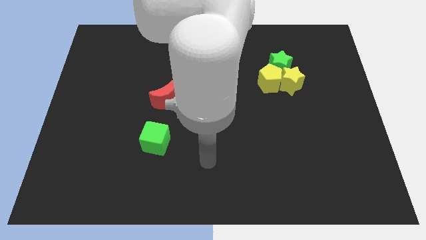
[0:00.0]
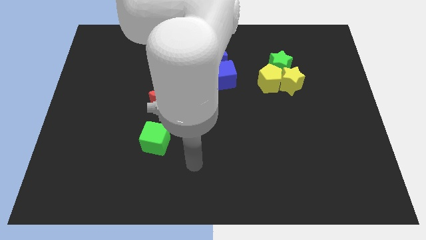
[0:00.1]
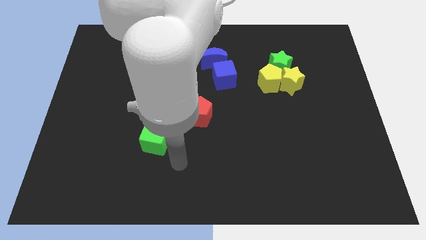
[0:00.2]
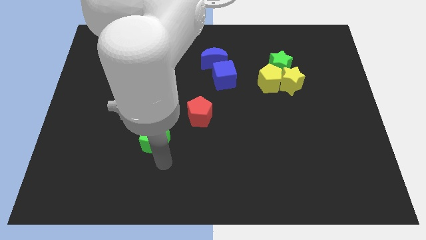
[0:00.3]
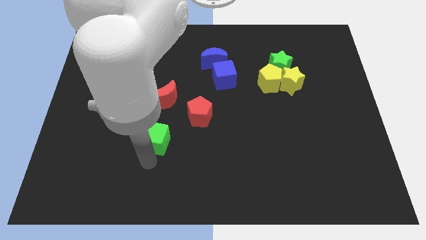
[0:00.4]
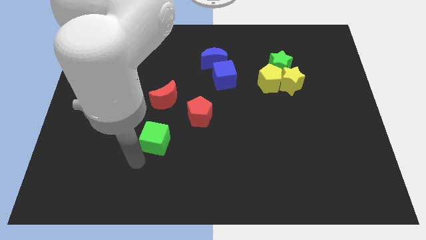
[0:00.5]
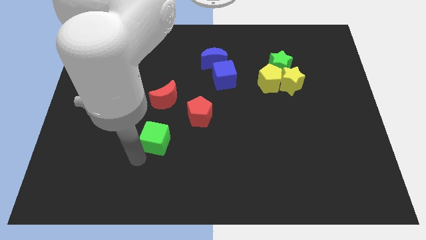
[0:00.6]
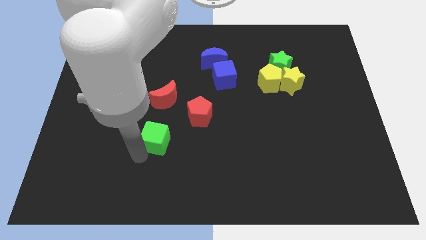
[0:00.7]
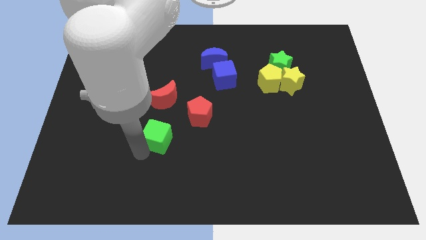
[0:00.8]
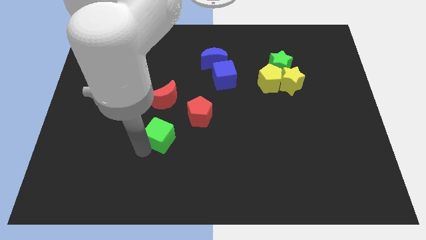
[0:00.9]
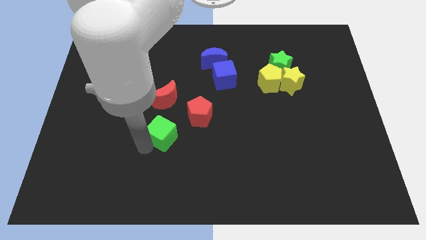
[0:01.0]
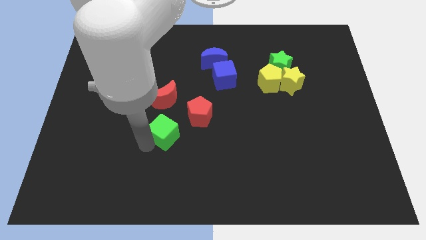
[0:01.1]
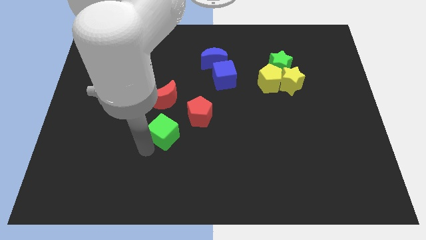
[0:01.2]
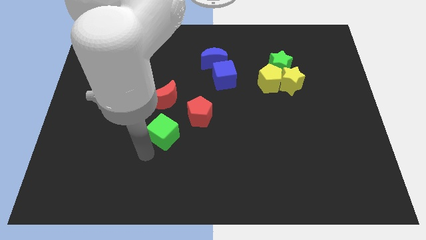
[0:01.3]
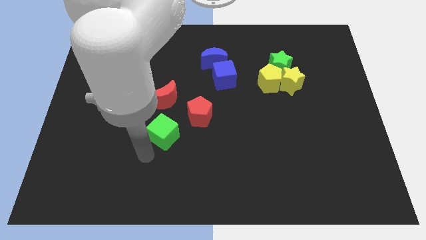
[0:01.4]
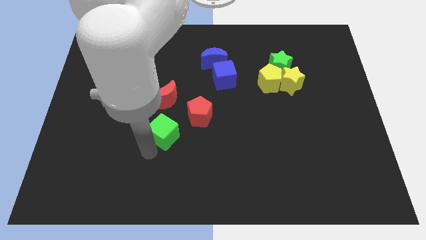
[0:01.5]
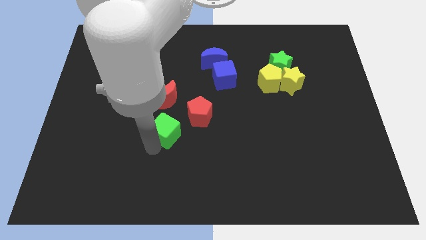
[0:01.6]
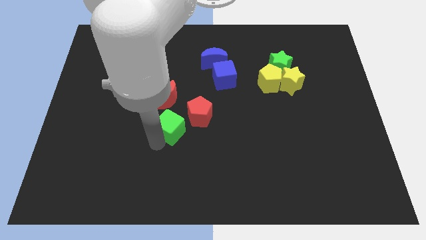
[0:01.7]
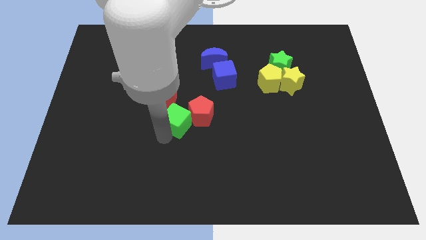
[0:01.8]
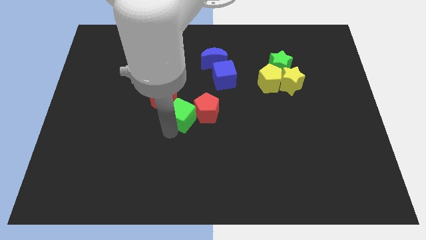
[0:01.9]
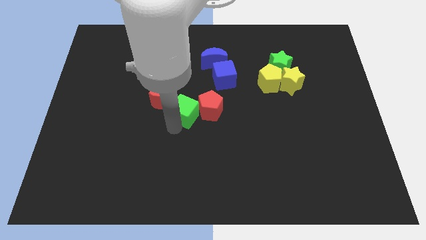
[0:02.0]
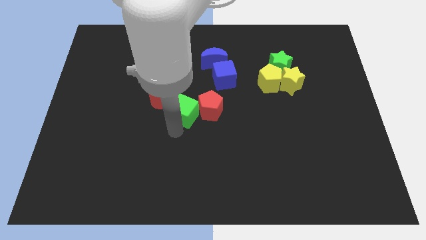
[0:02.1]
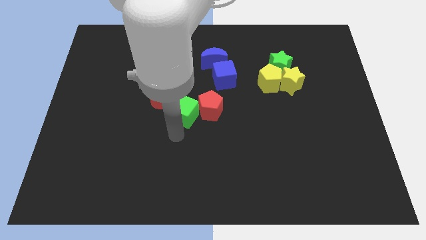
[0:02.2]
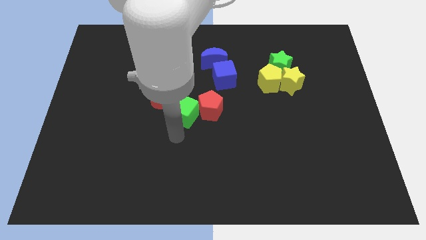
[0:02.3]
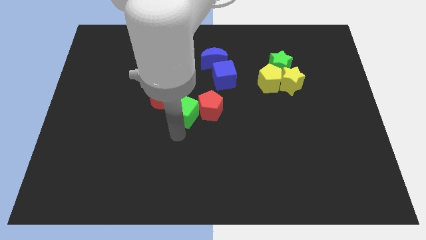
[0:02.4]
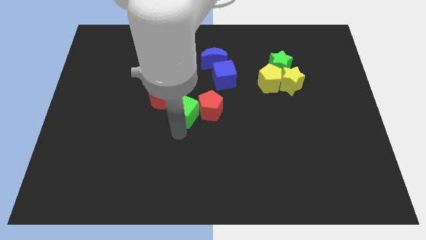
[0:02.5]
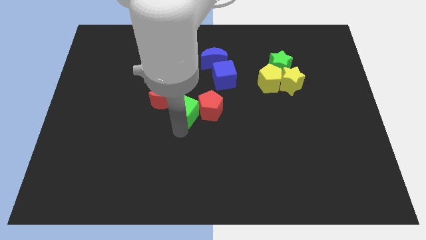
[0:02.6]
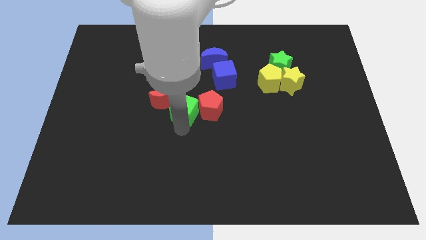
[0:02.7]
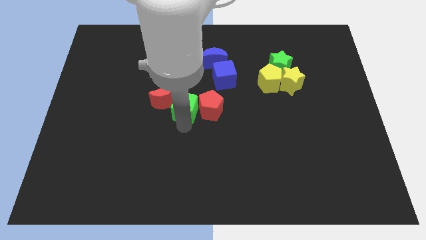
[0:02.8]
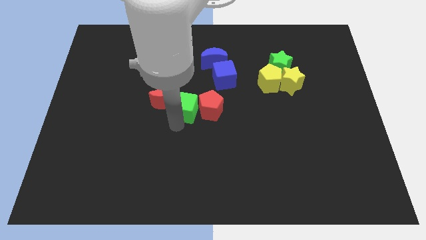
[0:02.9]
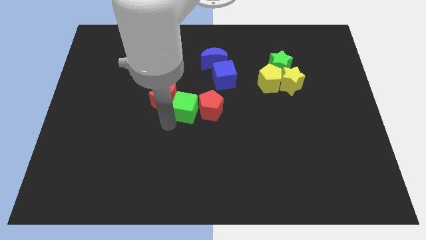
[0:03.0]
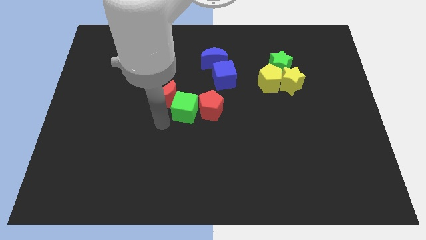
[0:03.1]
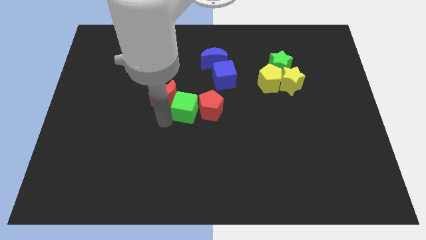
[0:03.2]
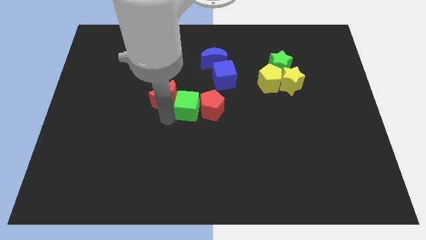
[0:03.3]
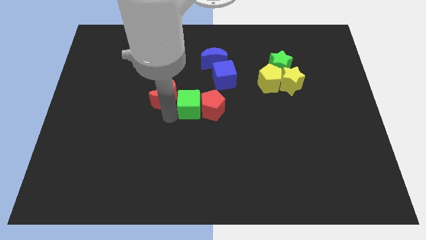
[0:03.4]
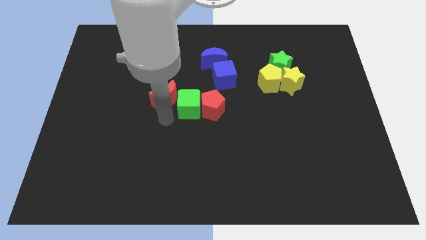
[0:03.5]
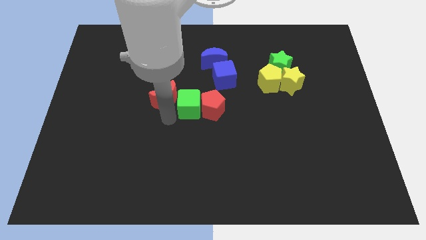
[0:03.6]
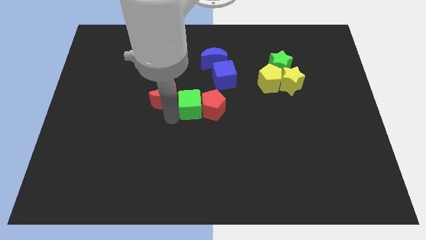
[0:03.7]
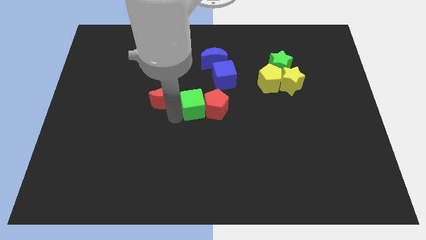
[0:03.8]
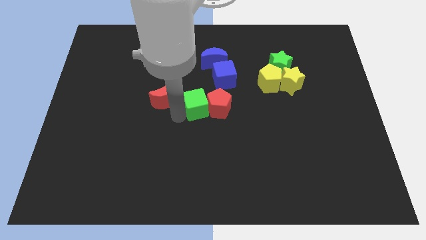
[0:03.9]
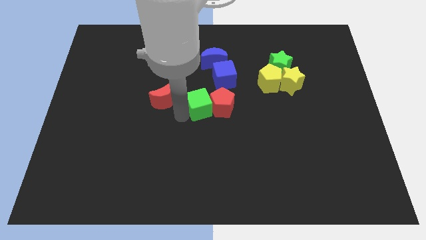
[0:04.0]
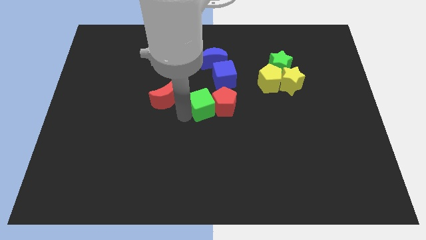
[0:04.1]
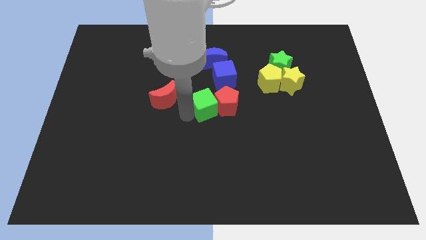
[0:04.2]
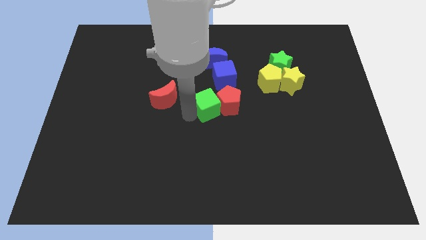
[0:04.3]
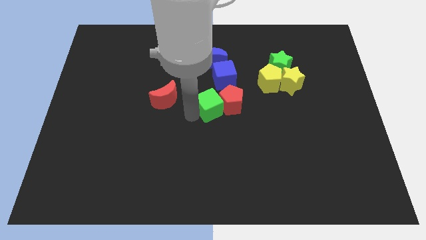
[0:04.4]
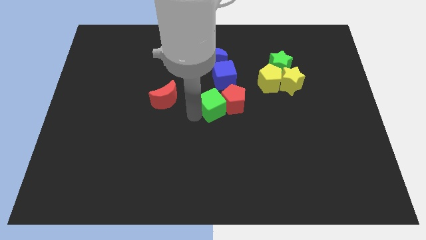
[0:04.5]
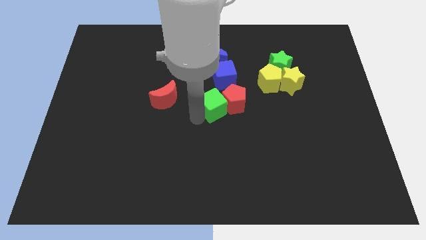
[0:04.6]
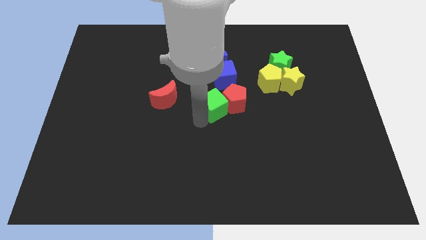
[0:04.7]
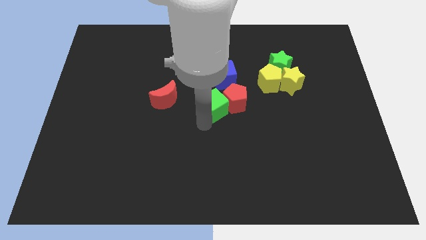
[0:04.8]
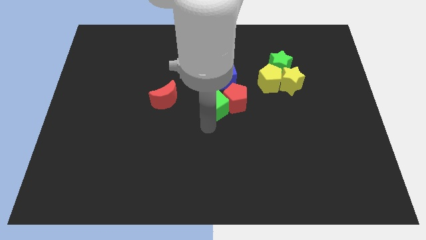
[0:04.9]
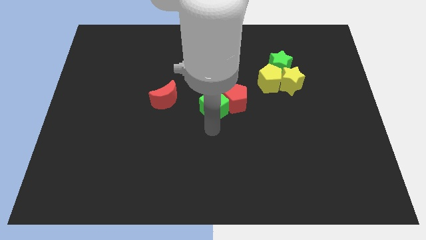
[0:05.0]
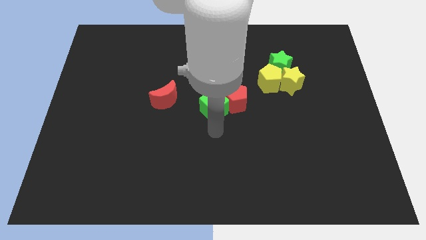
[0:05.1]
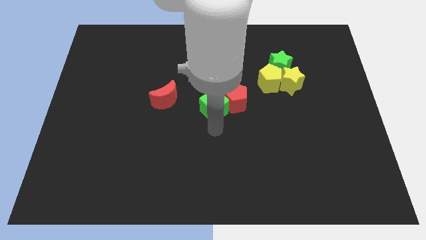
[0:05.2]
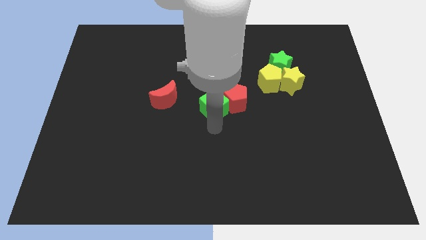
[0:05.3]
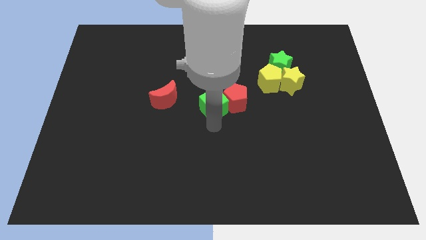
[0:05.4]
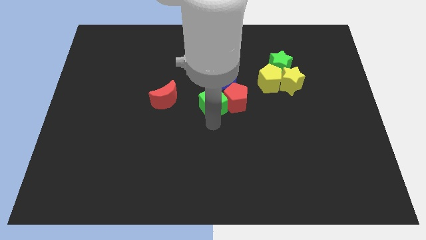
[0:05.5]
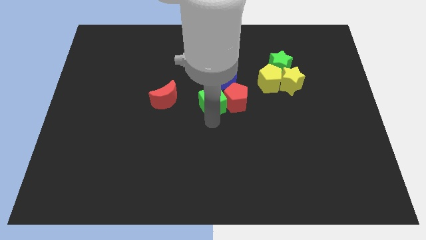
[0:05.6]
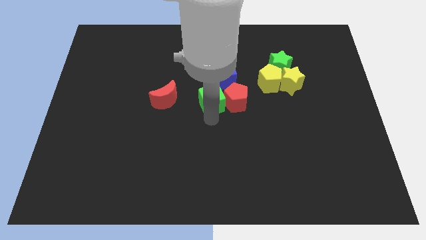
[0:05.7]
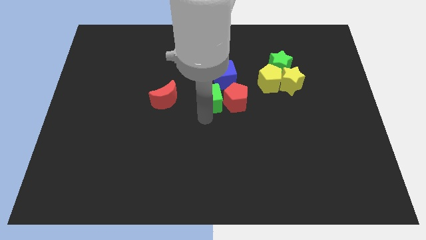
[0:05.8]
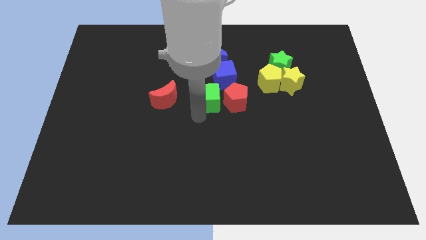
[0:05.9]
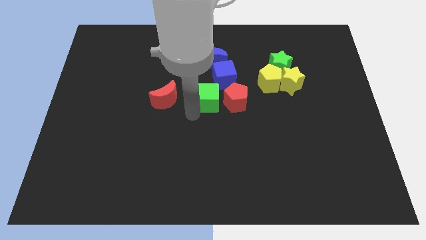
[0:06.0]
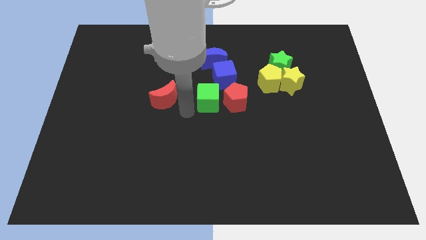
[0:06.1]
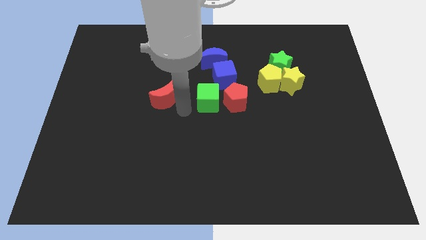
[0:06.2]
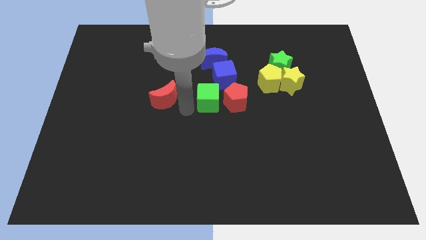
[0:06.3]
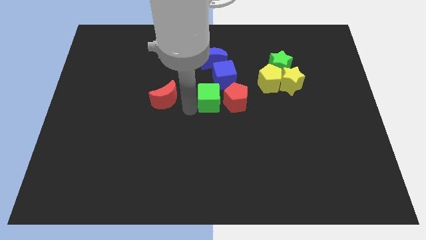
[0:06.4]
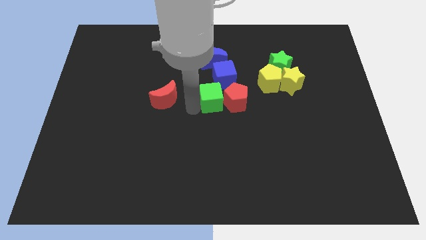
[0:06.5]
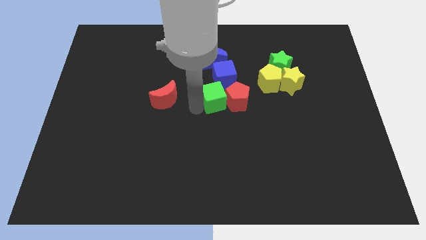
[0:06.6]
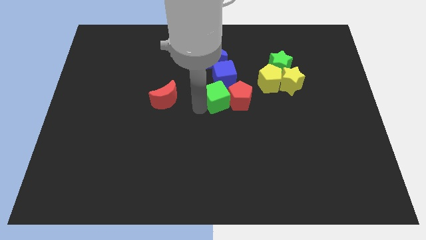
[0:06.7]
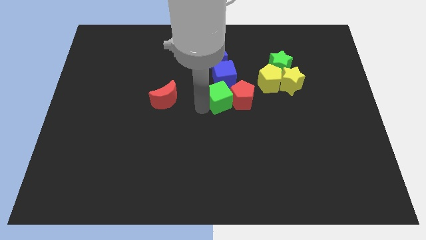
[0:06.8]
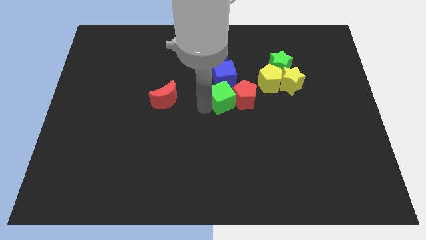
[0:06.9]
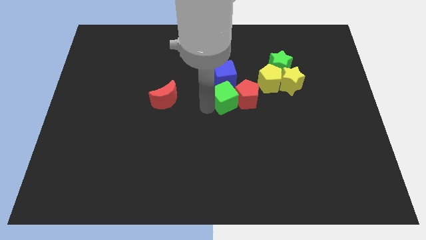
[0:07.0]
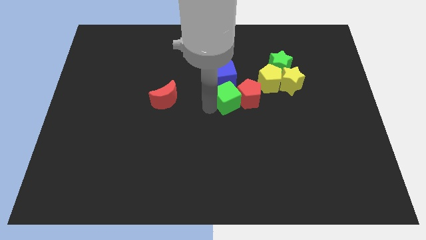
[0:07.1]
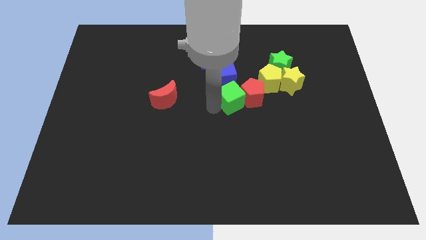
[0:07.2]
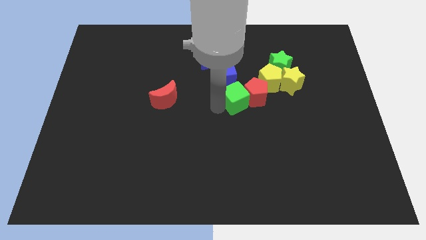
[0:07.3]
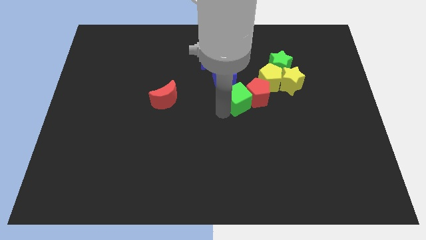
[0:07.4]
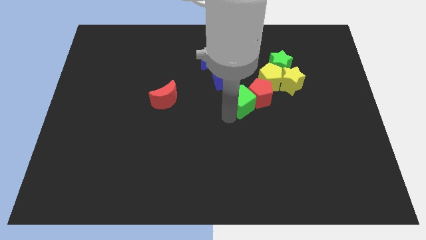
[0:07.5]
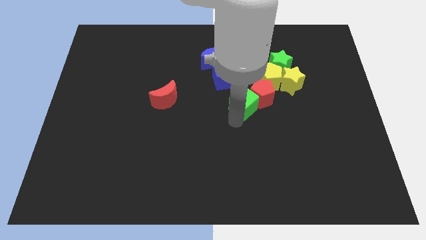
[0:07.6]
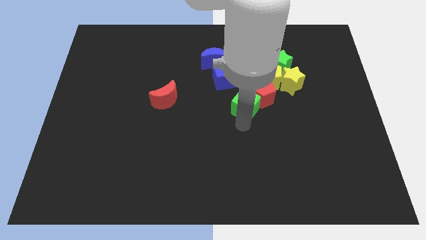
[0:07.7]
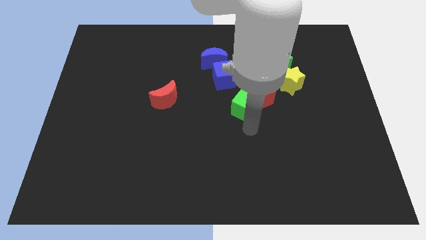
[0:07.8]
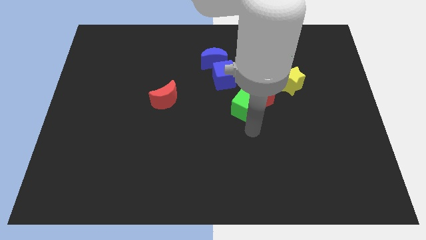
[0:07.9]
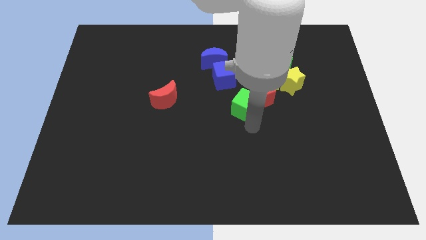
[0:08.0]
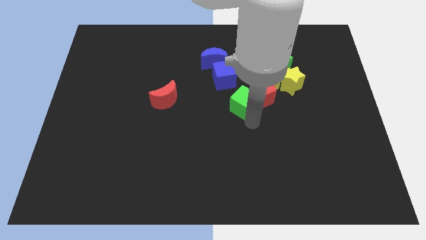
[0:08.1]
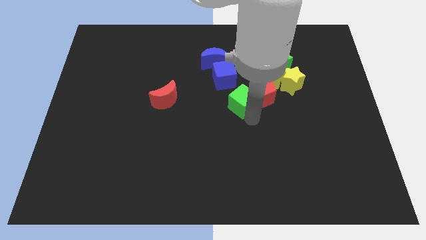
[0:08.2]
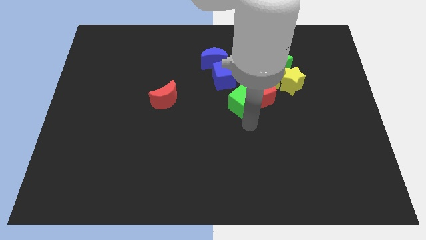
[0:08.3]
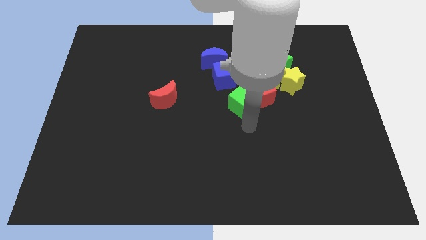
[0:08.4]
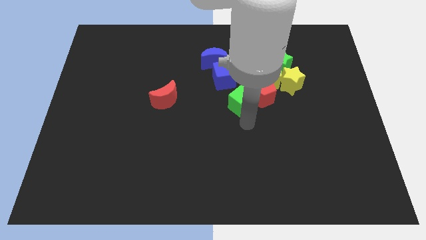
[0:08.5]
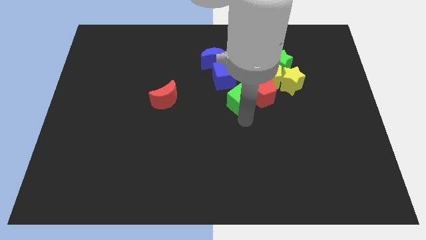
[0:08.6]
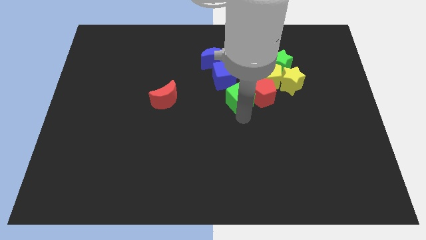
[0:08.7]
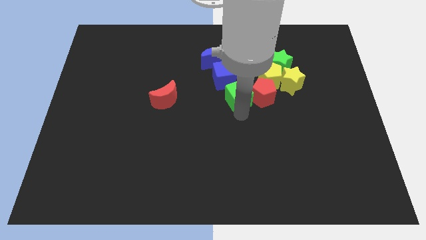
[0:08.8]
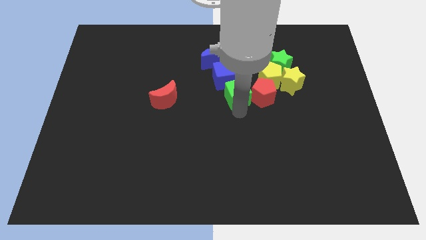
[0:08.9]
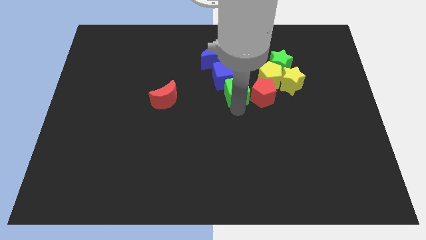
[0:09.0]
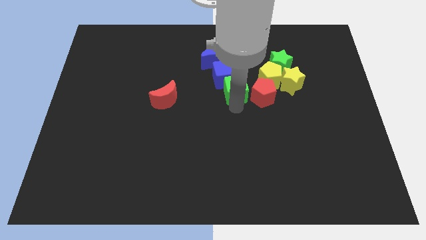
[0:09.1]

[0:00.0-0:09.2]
move the green cube to the bottom right side of the blue moon
